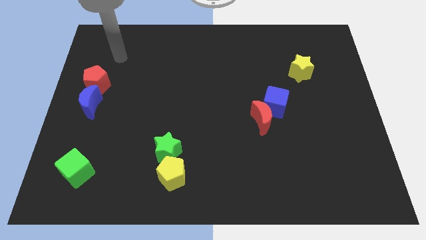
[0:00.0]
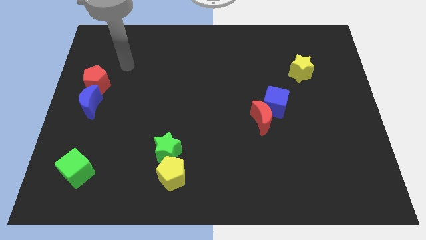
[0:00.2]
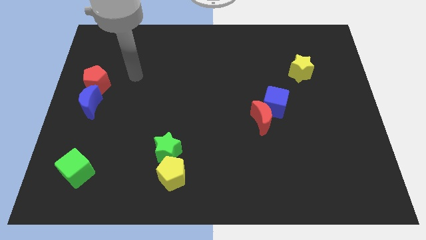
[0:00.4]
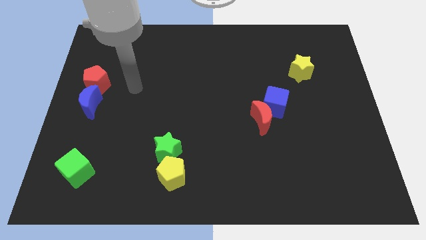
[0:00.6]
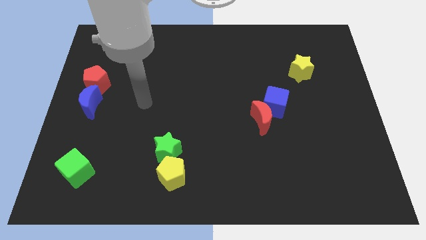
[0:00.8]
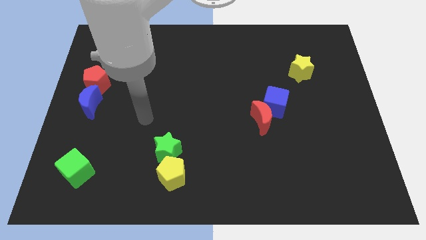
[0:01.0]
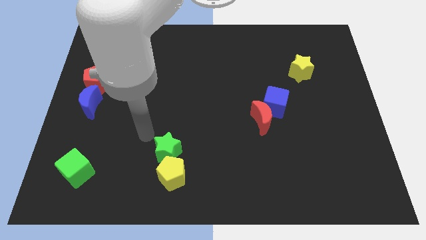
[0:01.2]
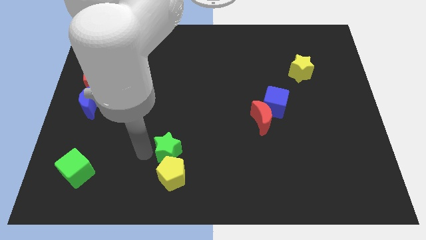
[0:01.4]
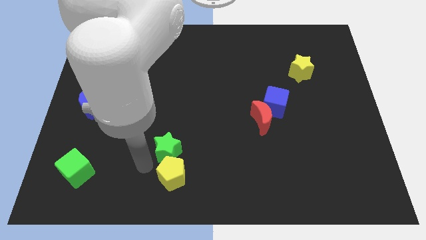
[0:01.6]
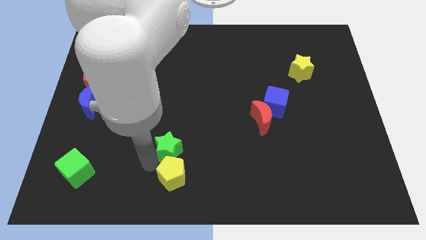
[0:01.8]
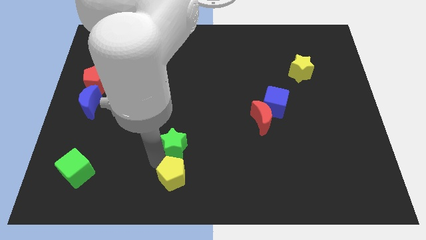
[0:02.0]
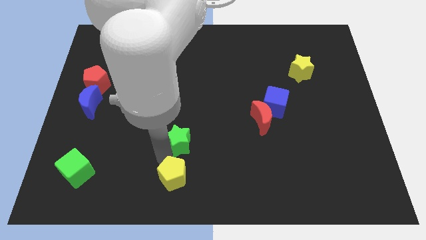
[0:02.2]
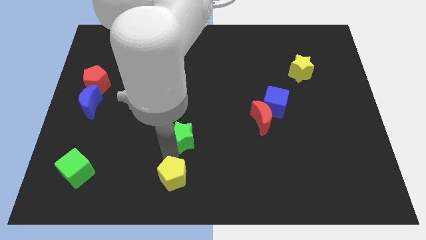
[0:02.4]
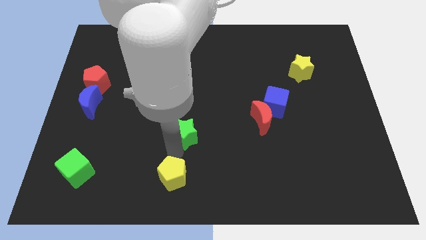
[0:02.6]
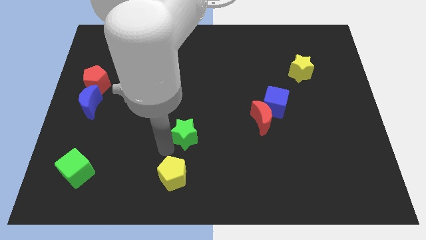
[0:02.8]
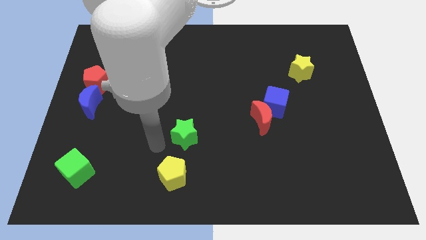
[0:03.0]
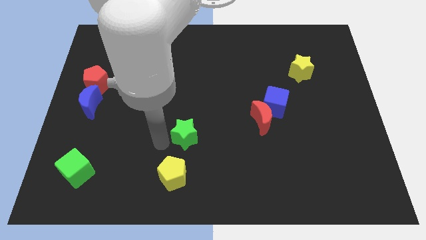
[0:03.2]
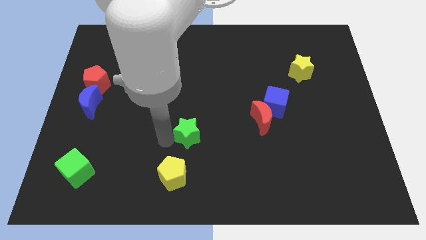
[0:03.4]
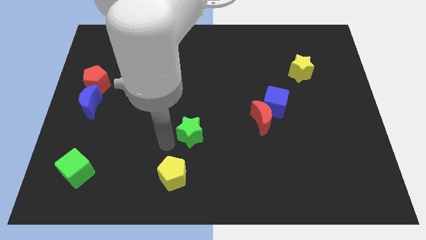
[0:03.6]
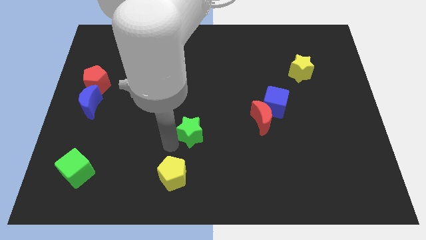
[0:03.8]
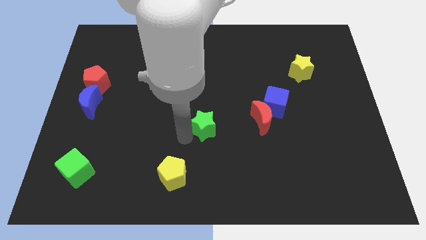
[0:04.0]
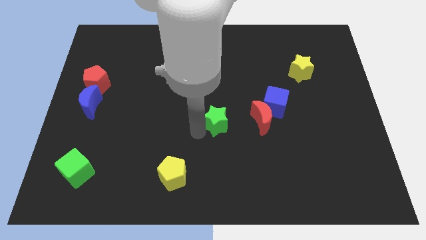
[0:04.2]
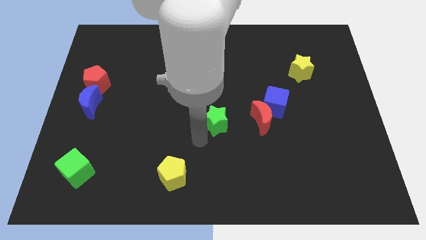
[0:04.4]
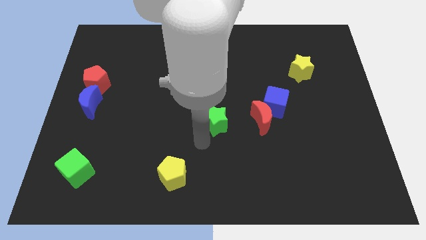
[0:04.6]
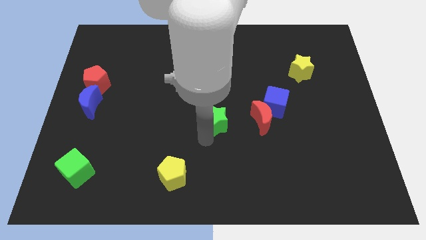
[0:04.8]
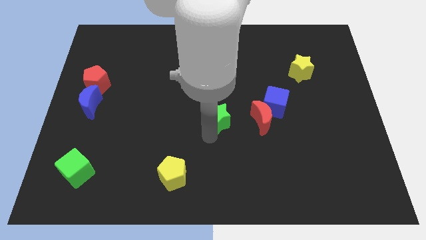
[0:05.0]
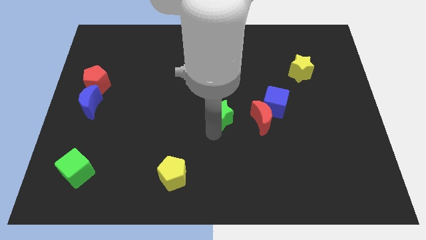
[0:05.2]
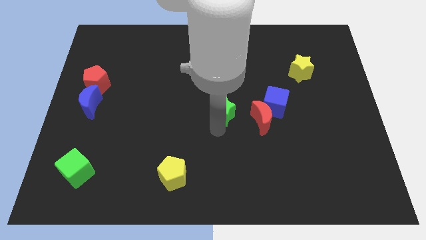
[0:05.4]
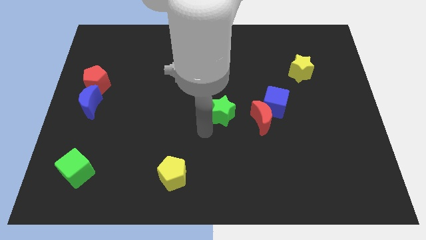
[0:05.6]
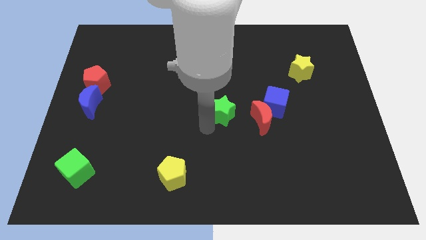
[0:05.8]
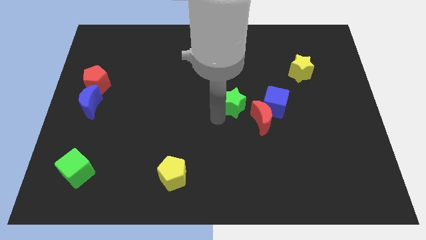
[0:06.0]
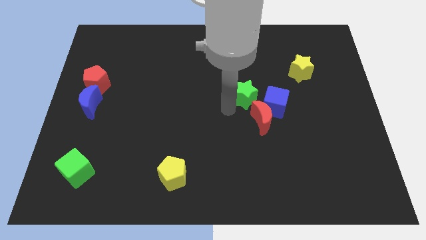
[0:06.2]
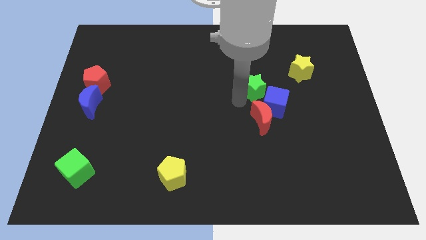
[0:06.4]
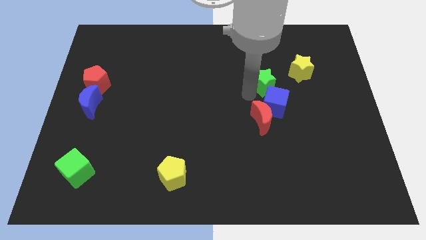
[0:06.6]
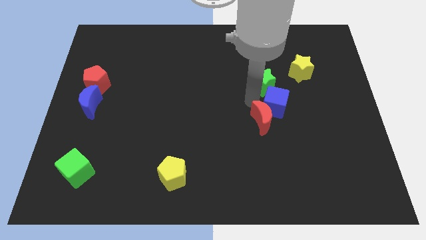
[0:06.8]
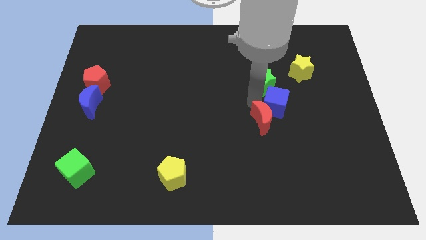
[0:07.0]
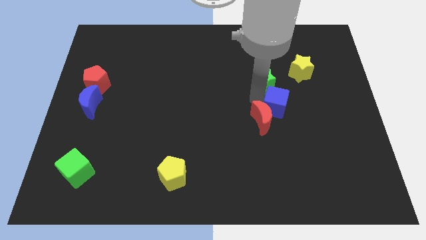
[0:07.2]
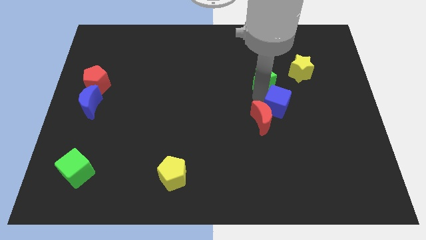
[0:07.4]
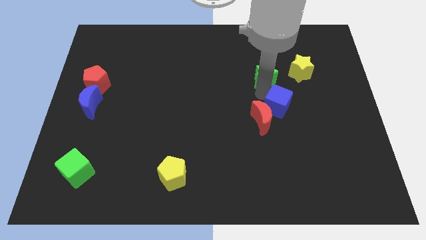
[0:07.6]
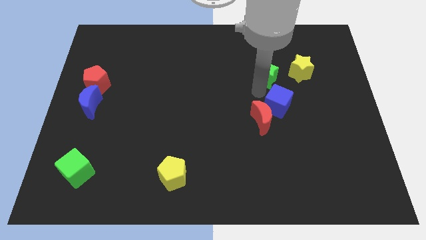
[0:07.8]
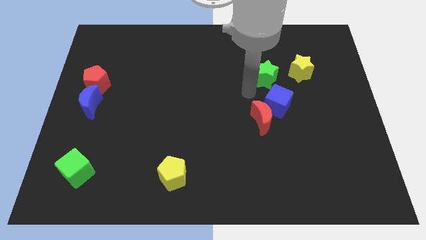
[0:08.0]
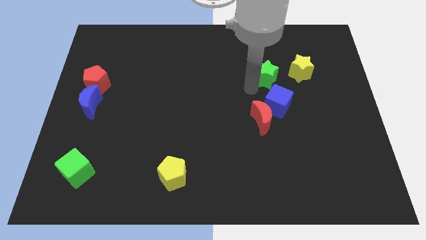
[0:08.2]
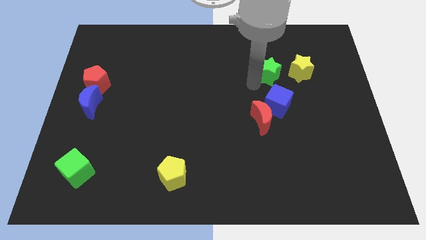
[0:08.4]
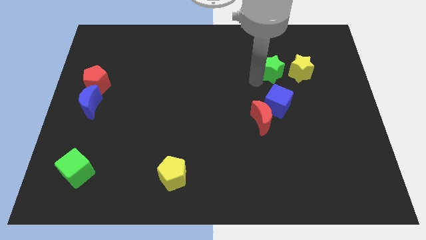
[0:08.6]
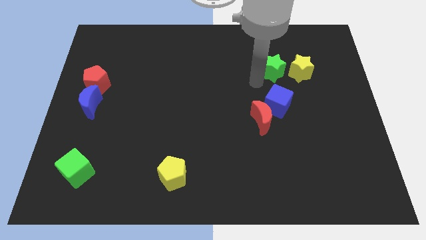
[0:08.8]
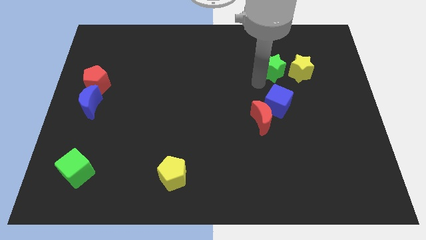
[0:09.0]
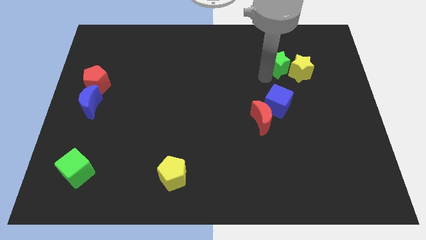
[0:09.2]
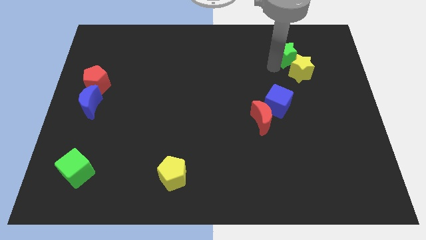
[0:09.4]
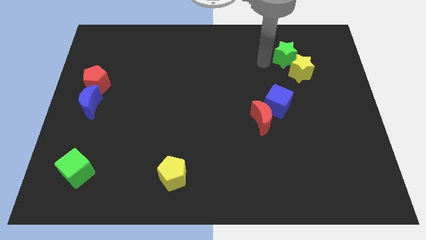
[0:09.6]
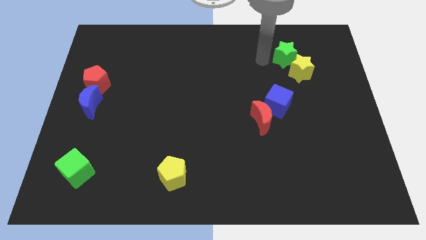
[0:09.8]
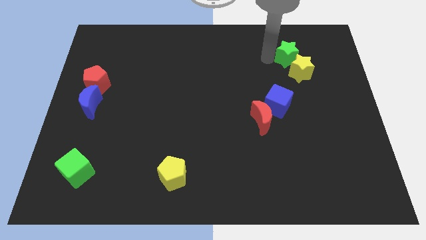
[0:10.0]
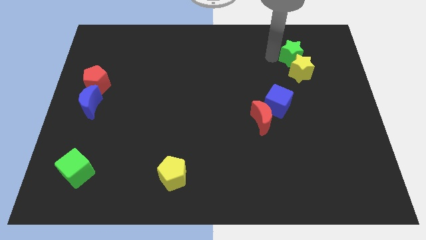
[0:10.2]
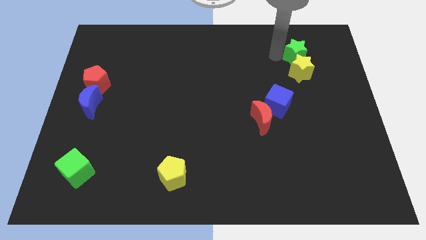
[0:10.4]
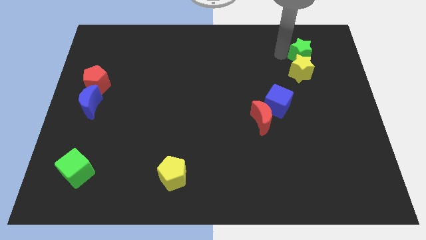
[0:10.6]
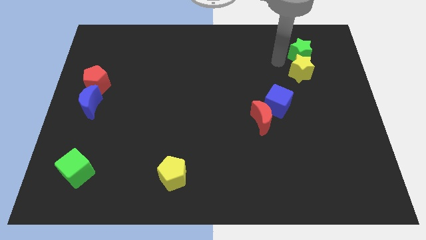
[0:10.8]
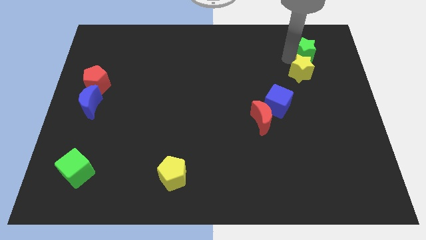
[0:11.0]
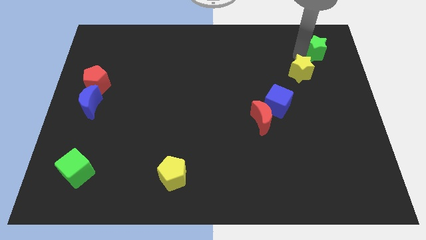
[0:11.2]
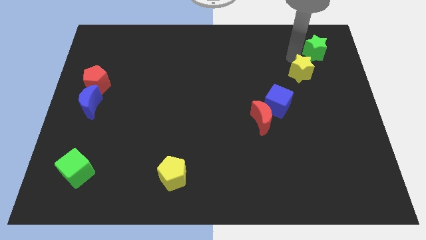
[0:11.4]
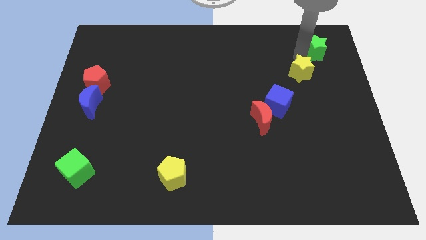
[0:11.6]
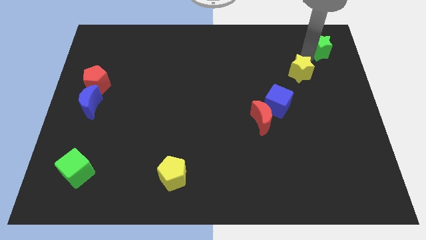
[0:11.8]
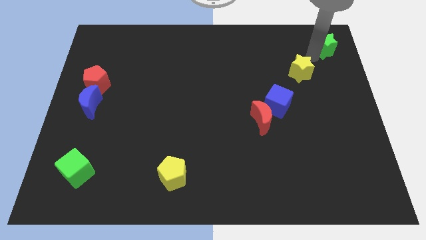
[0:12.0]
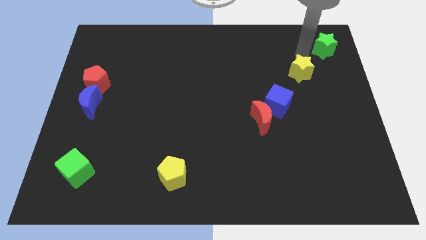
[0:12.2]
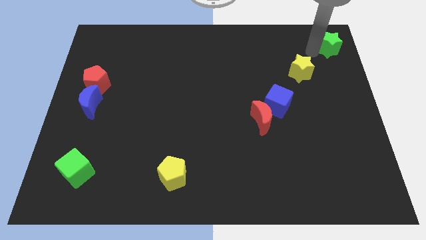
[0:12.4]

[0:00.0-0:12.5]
put the green star to the top right of the board

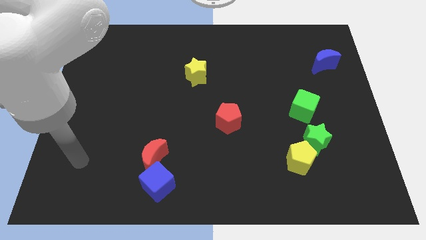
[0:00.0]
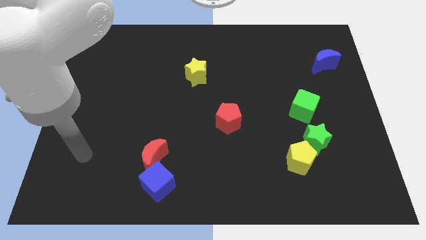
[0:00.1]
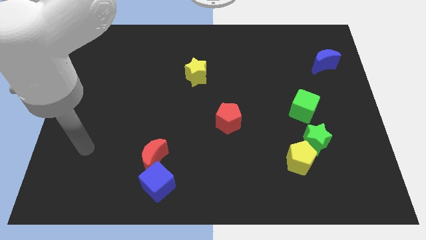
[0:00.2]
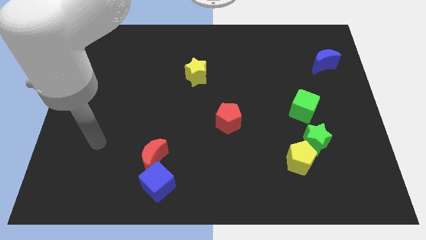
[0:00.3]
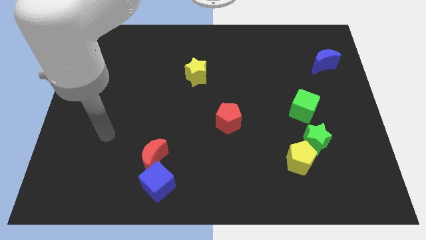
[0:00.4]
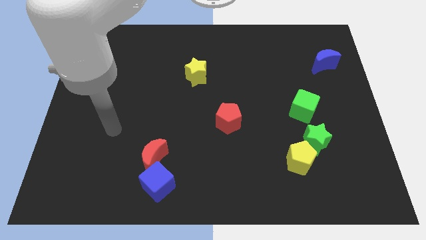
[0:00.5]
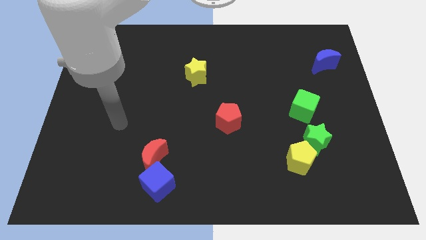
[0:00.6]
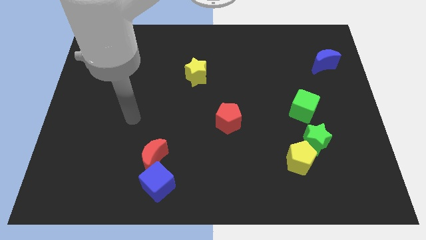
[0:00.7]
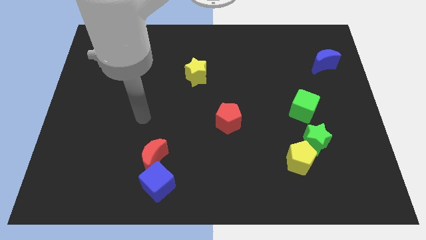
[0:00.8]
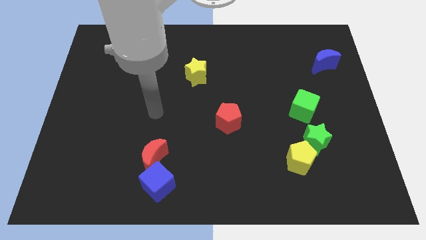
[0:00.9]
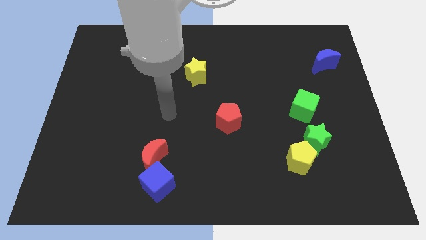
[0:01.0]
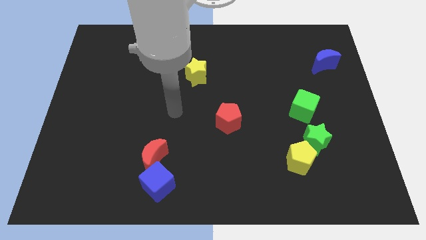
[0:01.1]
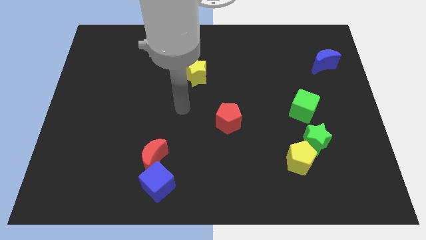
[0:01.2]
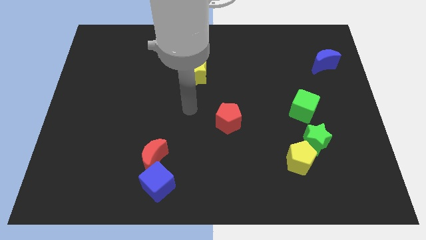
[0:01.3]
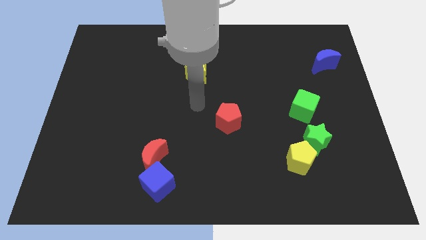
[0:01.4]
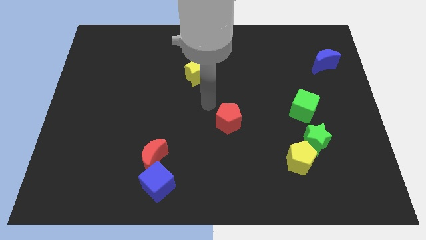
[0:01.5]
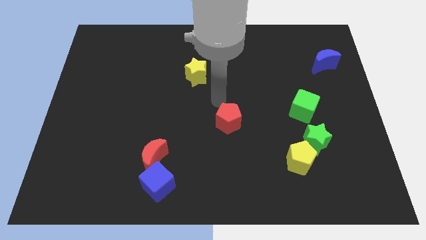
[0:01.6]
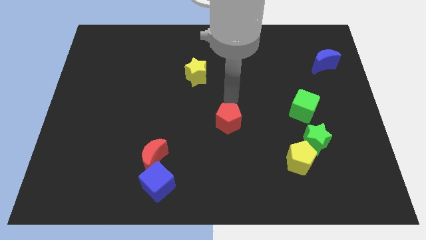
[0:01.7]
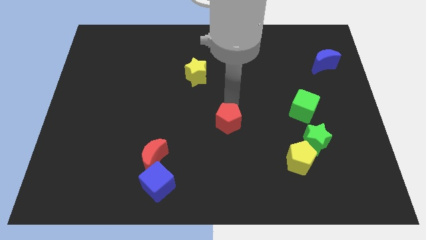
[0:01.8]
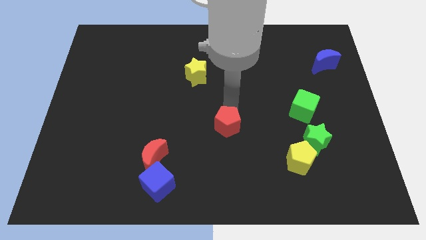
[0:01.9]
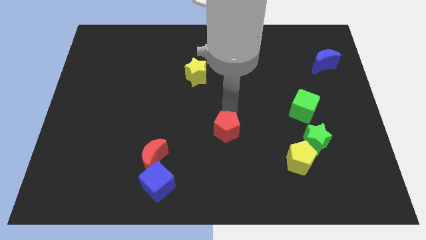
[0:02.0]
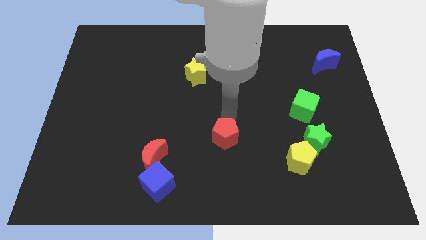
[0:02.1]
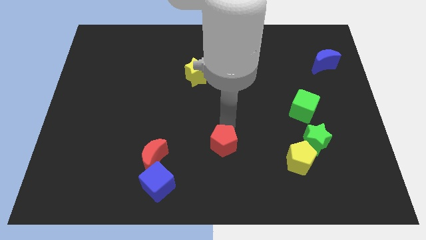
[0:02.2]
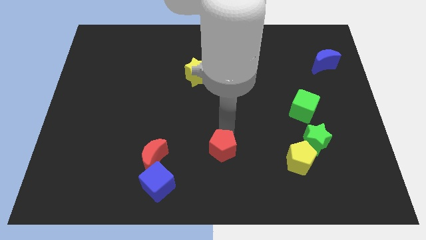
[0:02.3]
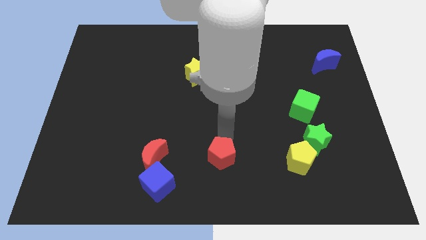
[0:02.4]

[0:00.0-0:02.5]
slide the red pentagon to the bottom
